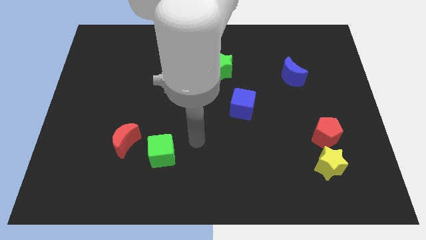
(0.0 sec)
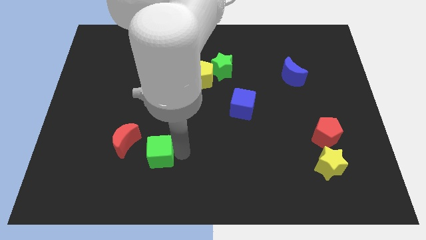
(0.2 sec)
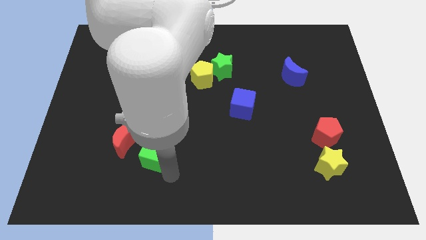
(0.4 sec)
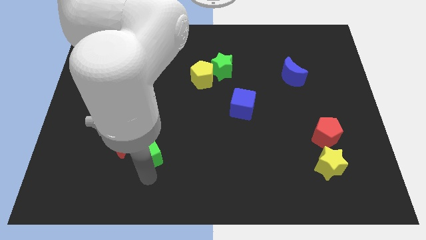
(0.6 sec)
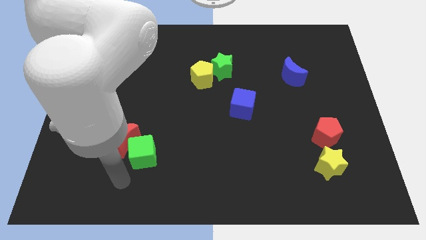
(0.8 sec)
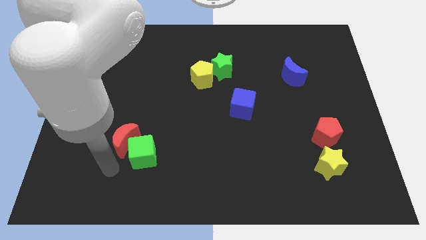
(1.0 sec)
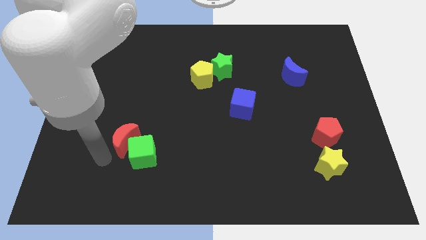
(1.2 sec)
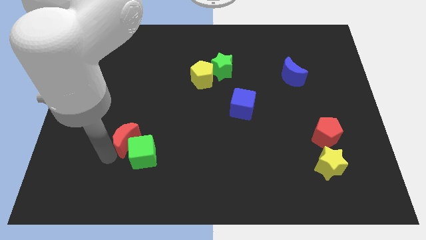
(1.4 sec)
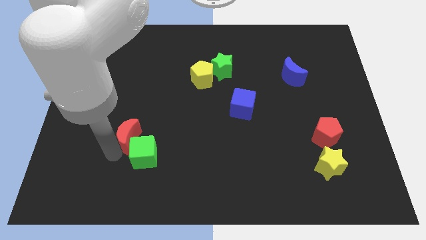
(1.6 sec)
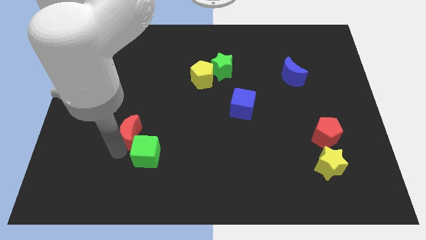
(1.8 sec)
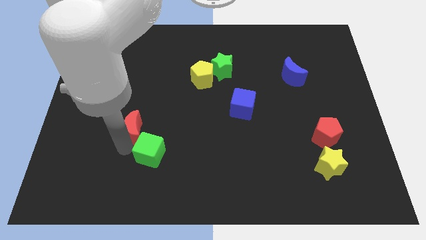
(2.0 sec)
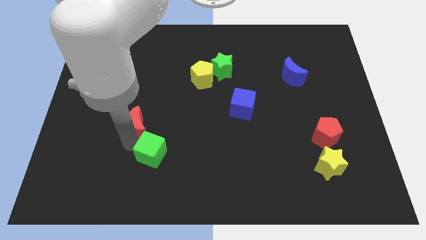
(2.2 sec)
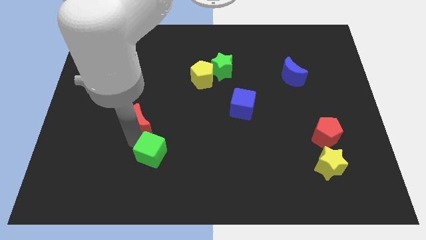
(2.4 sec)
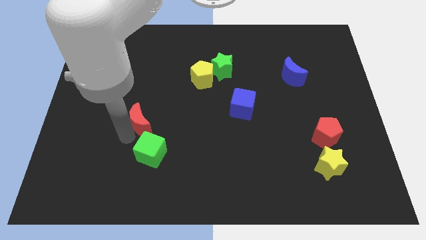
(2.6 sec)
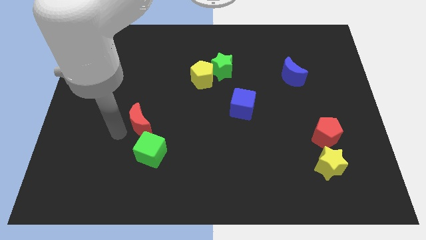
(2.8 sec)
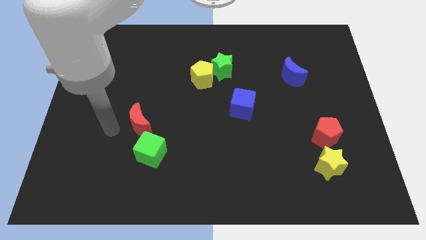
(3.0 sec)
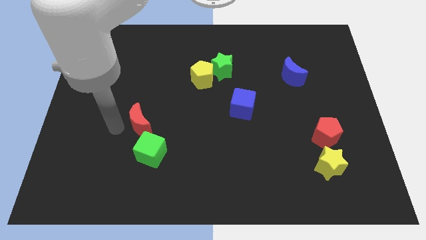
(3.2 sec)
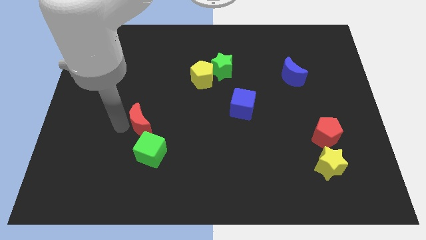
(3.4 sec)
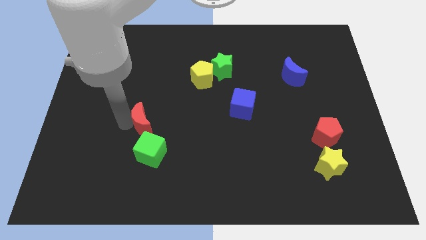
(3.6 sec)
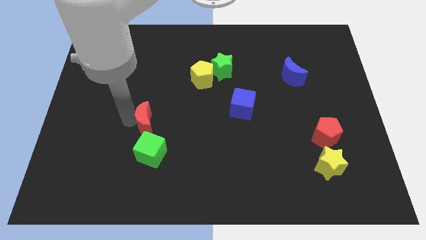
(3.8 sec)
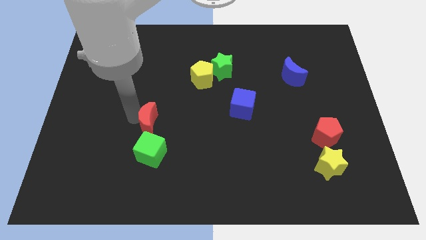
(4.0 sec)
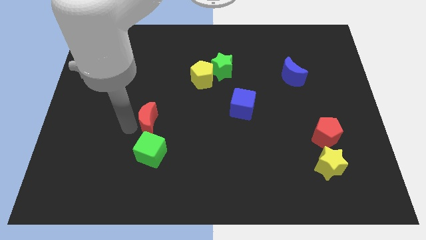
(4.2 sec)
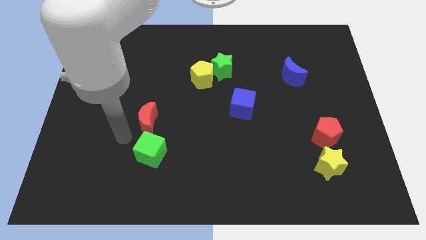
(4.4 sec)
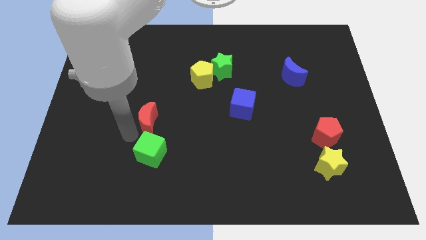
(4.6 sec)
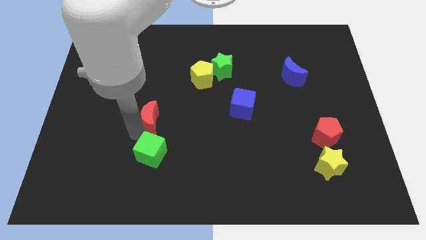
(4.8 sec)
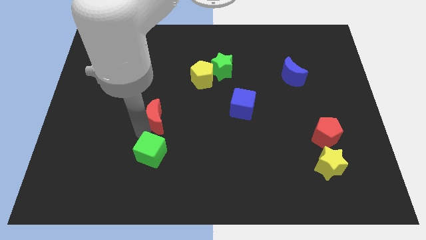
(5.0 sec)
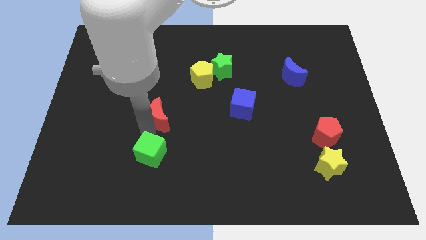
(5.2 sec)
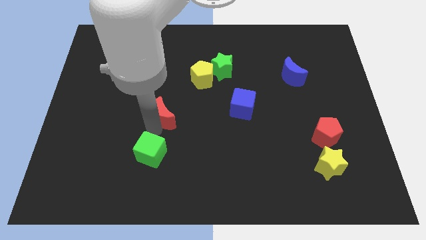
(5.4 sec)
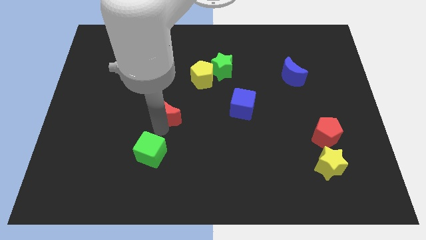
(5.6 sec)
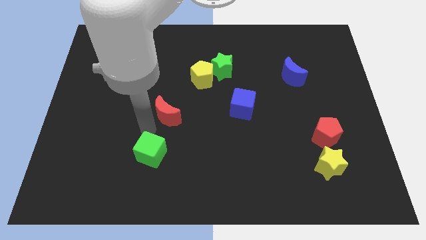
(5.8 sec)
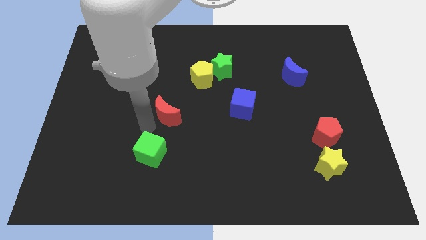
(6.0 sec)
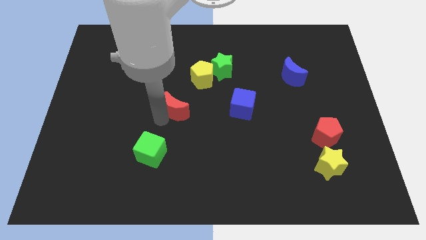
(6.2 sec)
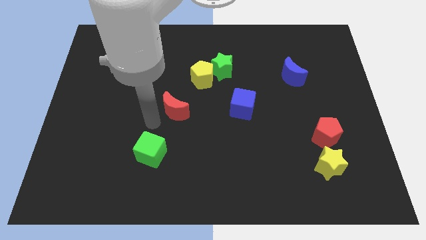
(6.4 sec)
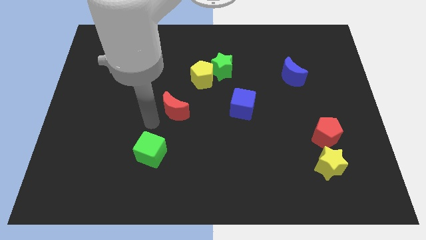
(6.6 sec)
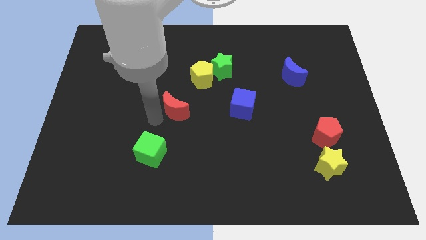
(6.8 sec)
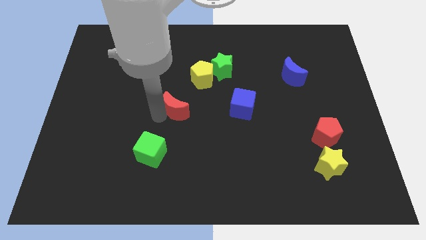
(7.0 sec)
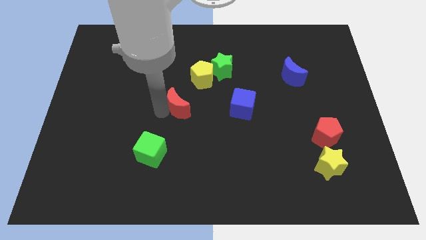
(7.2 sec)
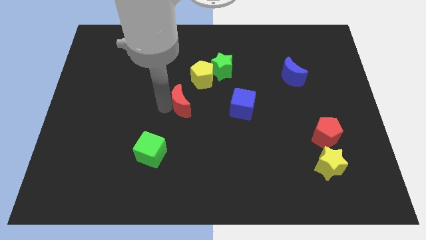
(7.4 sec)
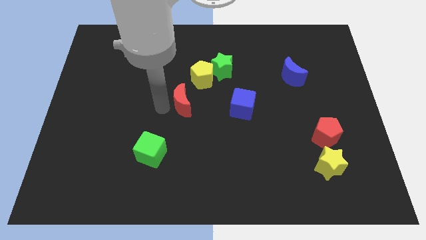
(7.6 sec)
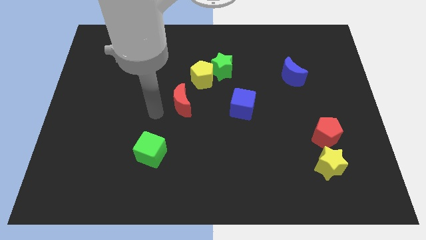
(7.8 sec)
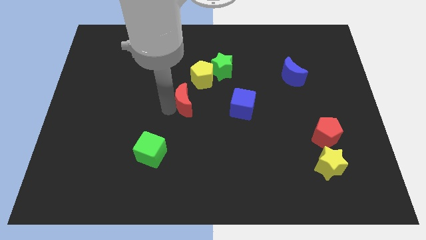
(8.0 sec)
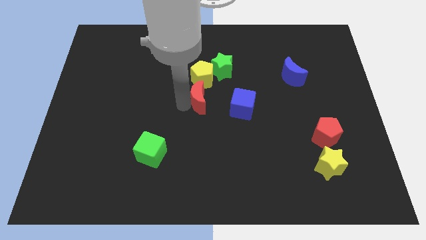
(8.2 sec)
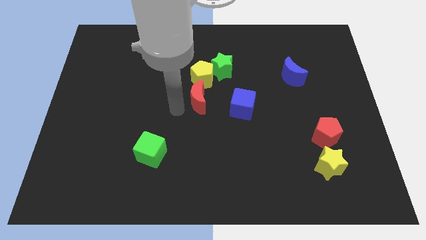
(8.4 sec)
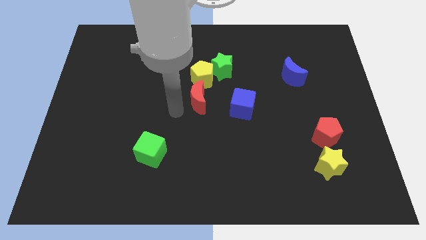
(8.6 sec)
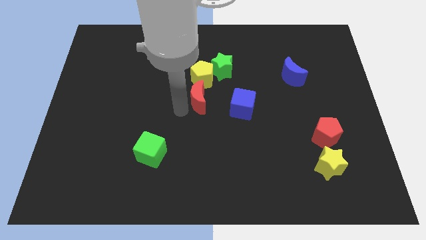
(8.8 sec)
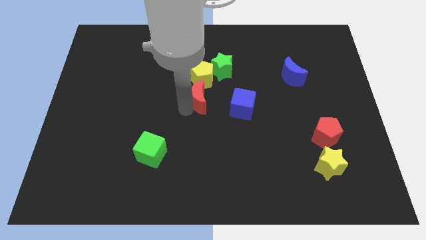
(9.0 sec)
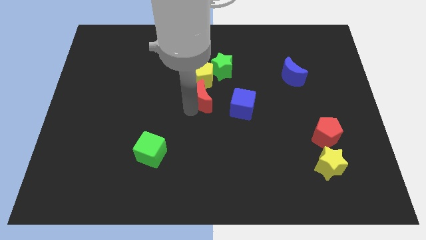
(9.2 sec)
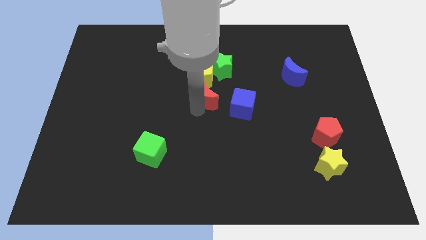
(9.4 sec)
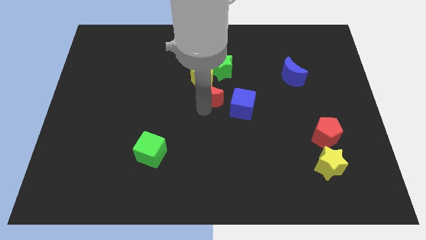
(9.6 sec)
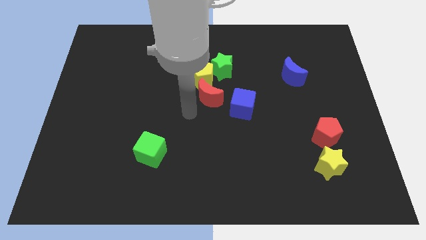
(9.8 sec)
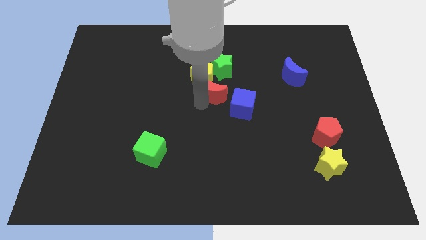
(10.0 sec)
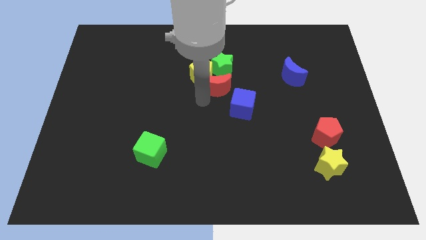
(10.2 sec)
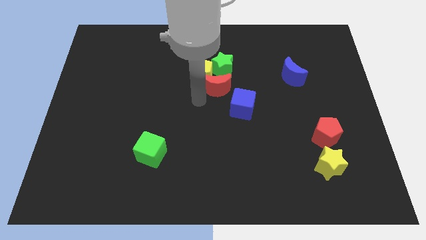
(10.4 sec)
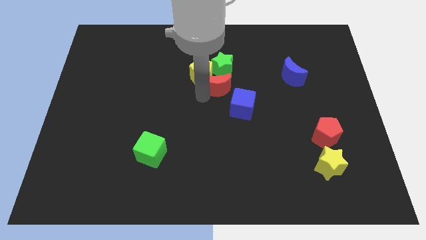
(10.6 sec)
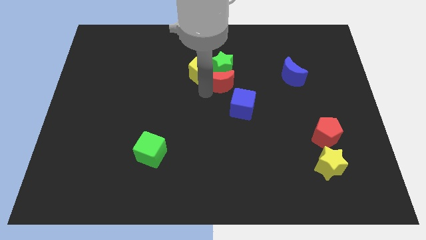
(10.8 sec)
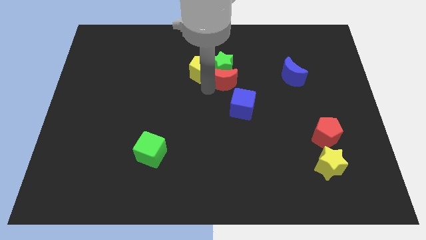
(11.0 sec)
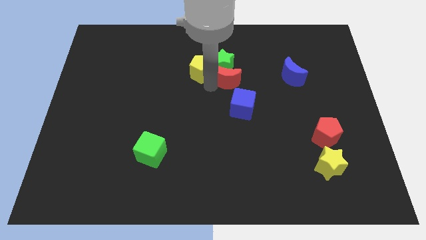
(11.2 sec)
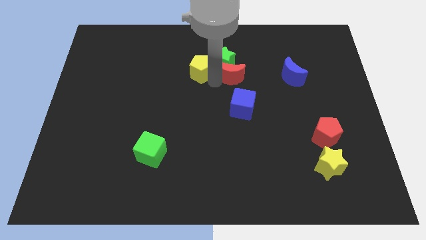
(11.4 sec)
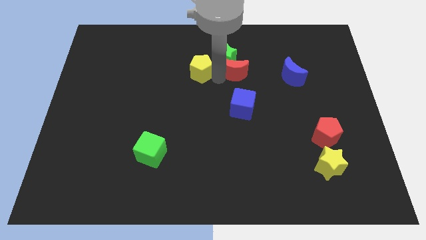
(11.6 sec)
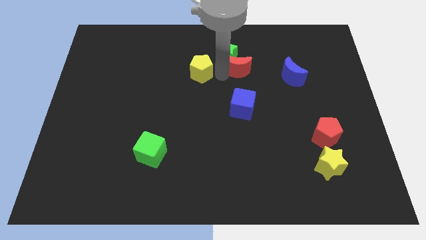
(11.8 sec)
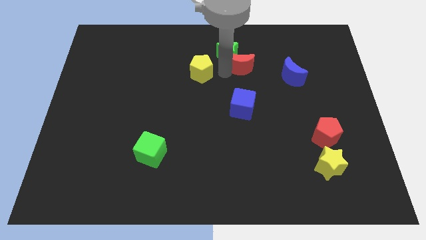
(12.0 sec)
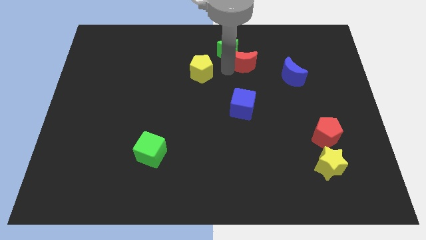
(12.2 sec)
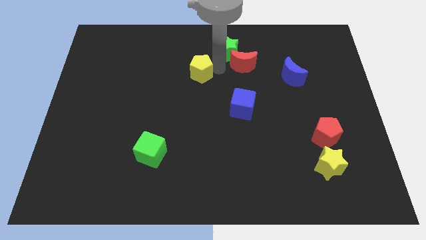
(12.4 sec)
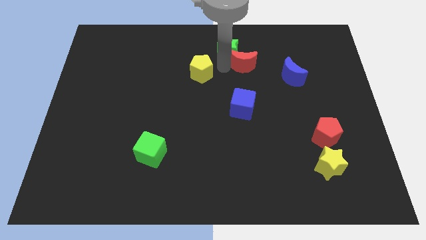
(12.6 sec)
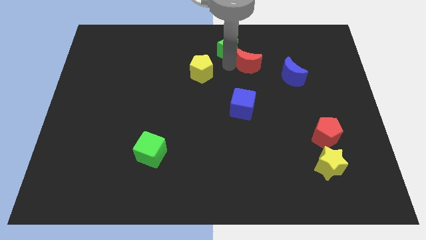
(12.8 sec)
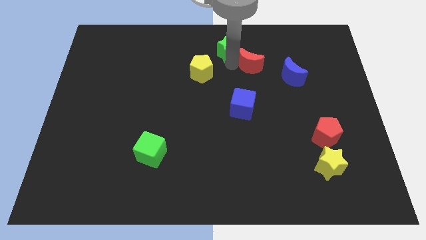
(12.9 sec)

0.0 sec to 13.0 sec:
move the red moon to the top left of the blue moon
